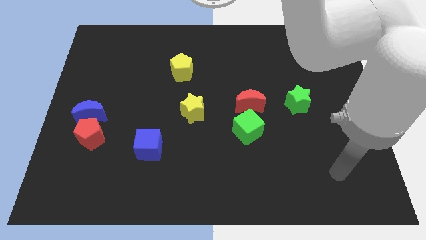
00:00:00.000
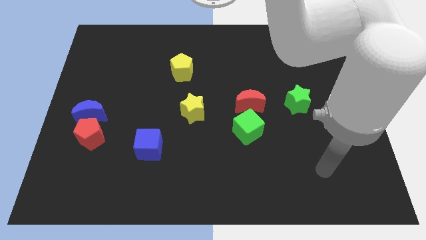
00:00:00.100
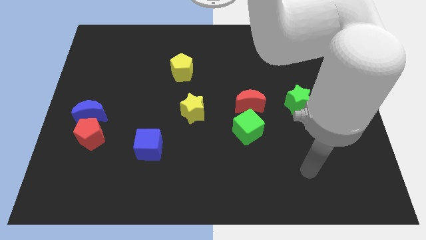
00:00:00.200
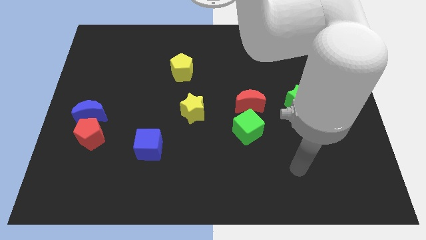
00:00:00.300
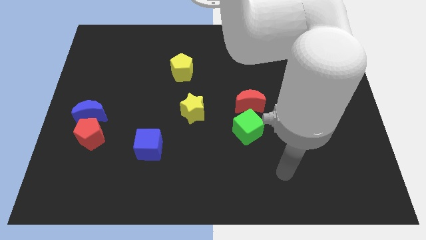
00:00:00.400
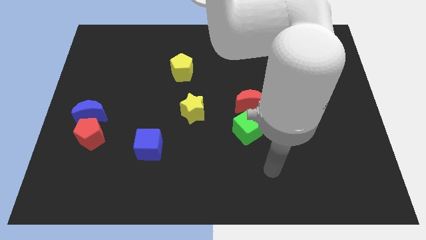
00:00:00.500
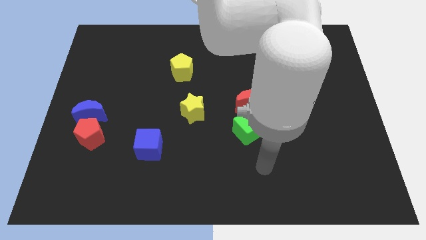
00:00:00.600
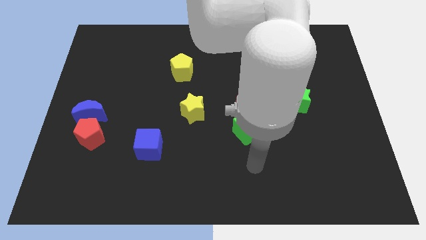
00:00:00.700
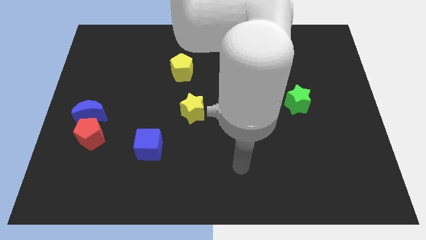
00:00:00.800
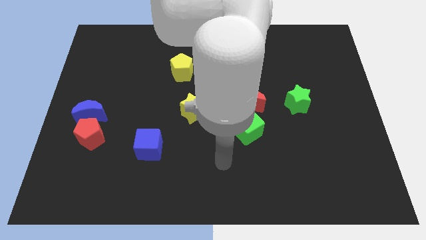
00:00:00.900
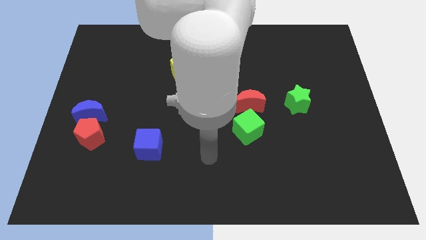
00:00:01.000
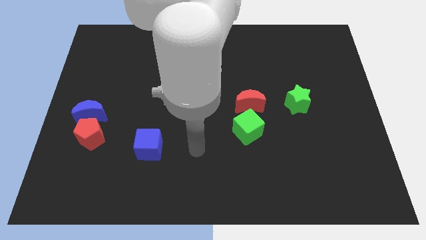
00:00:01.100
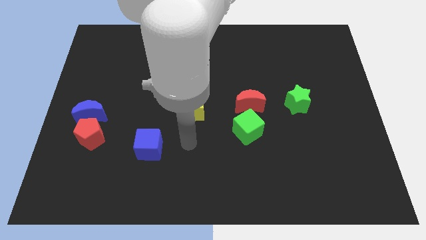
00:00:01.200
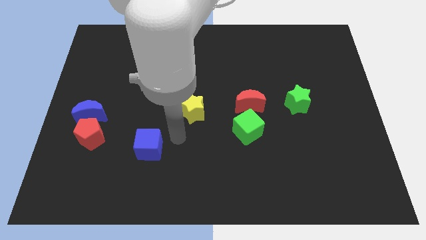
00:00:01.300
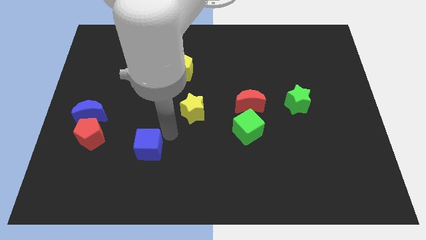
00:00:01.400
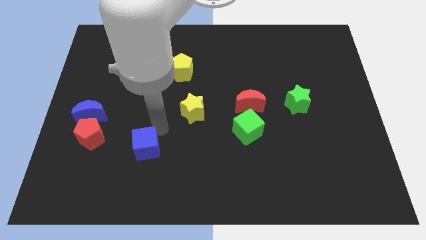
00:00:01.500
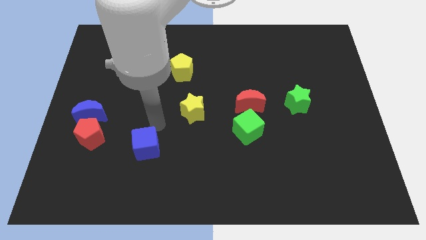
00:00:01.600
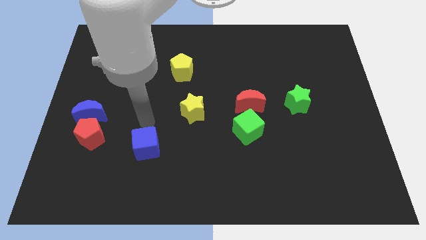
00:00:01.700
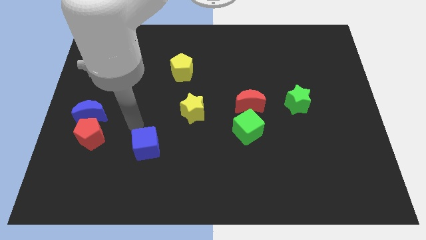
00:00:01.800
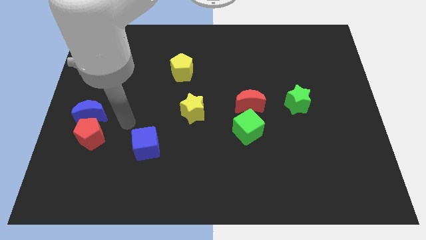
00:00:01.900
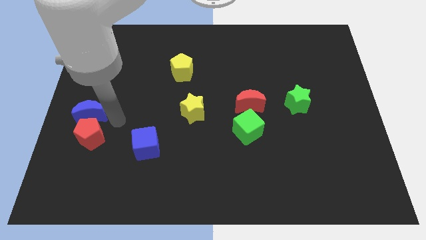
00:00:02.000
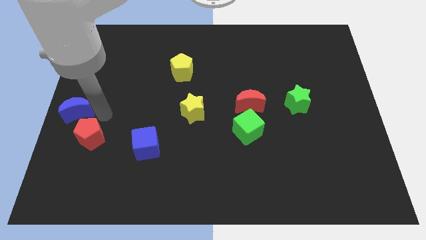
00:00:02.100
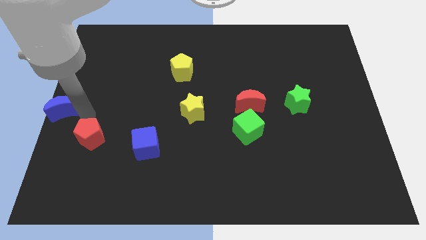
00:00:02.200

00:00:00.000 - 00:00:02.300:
pull the red pentagon apart from the blue moon

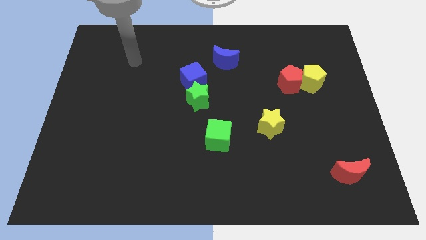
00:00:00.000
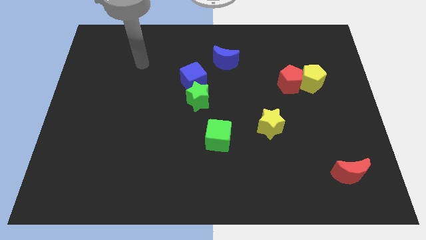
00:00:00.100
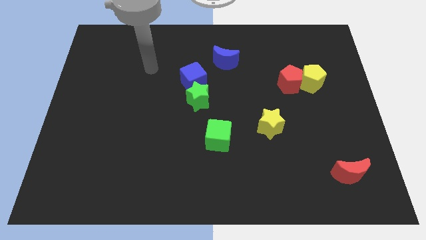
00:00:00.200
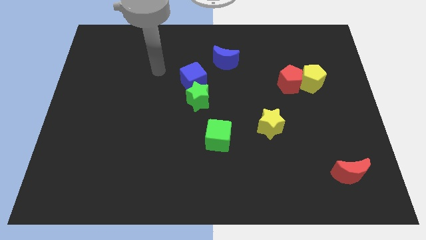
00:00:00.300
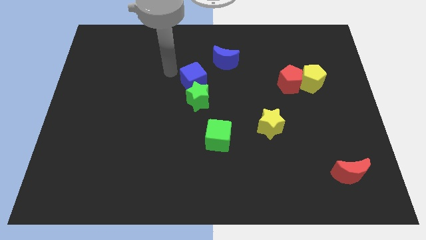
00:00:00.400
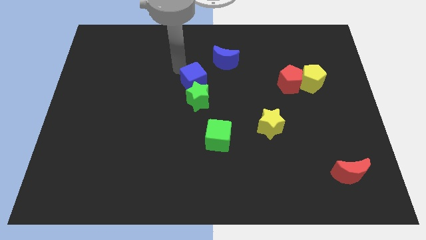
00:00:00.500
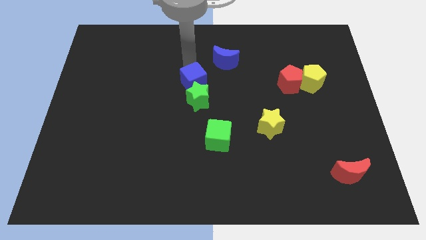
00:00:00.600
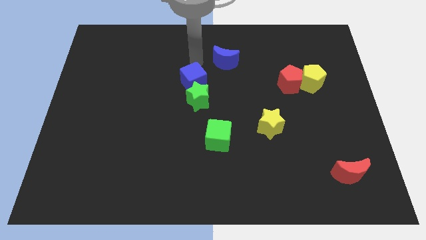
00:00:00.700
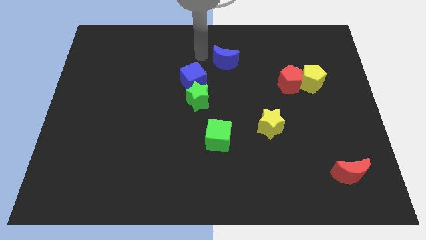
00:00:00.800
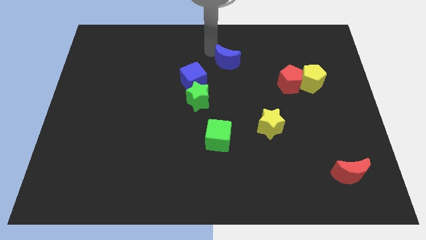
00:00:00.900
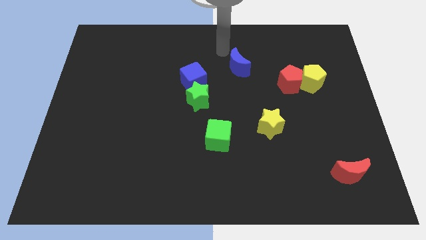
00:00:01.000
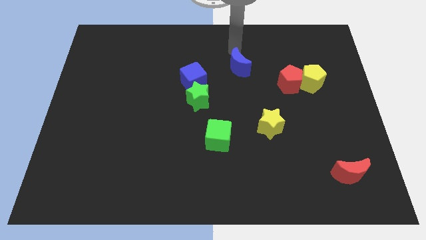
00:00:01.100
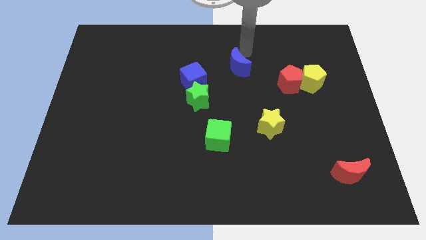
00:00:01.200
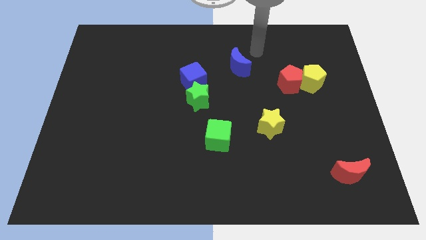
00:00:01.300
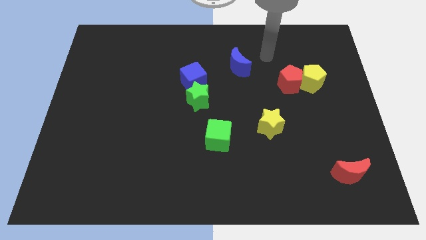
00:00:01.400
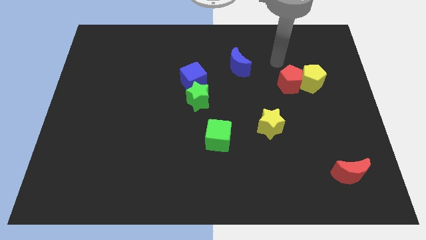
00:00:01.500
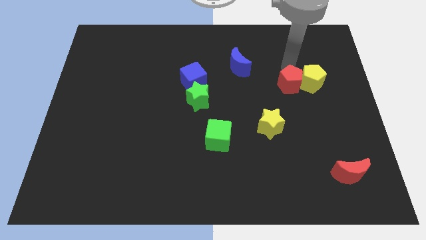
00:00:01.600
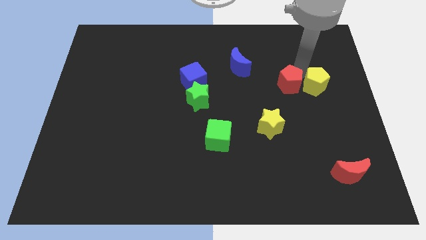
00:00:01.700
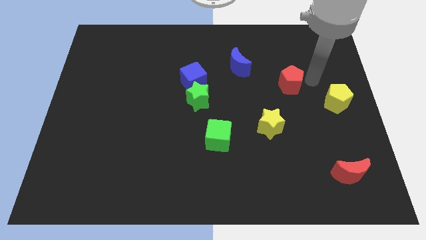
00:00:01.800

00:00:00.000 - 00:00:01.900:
pull the red pentagon apart from the yellow pentagon

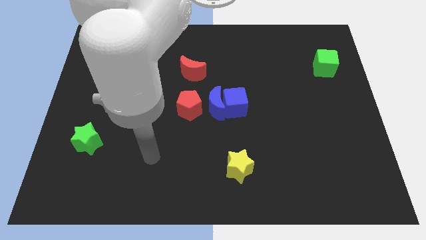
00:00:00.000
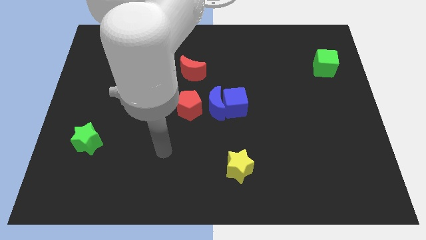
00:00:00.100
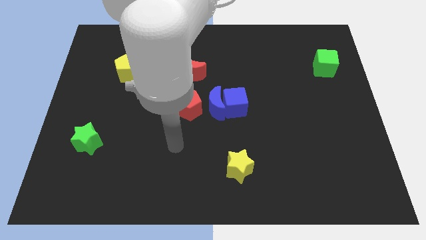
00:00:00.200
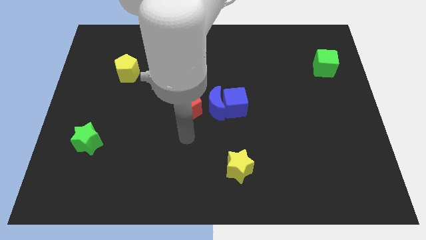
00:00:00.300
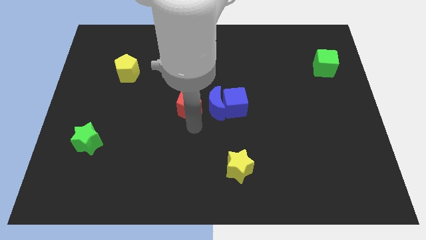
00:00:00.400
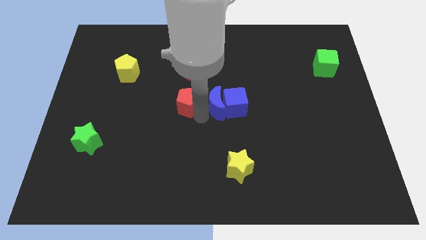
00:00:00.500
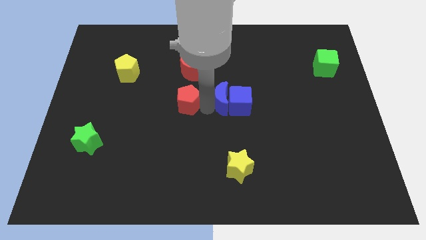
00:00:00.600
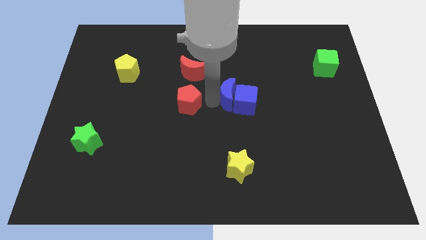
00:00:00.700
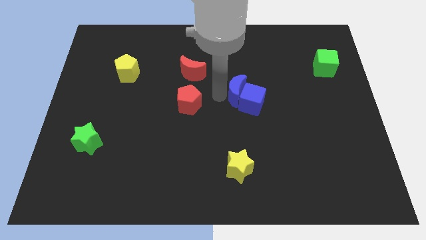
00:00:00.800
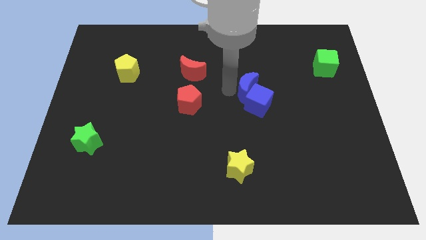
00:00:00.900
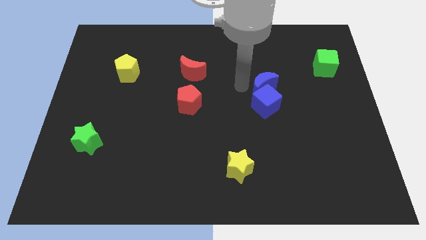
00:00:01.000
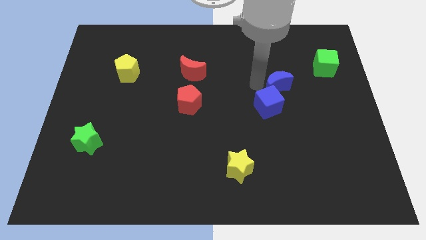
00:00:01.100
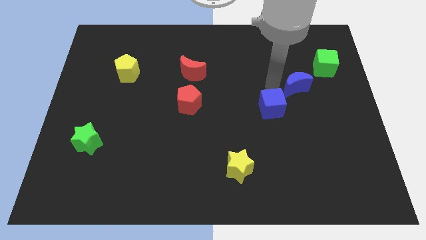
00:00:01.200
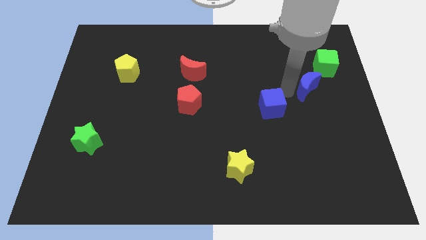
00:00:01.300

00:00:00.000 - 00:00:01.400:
pull the blue cube apart from the blue moon

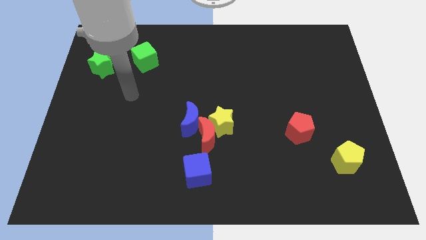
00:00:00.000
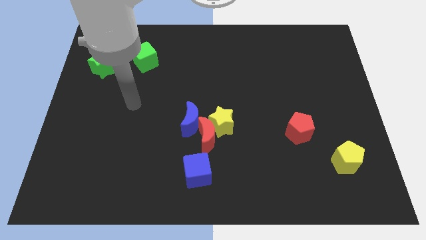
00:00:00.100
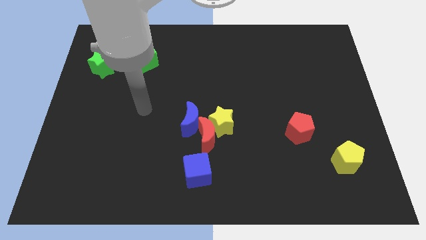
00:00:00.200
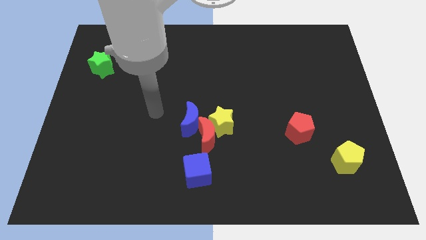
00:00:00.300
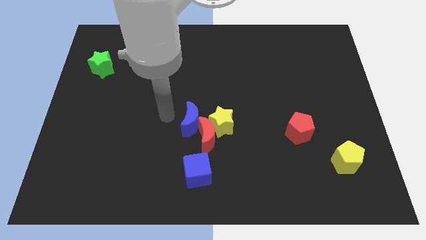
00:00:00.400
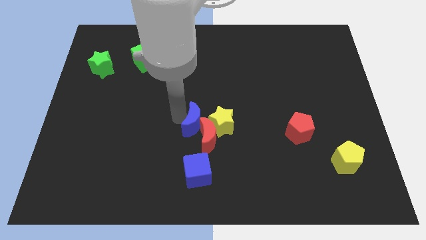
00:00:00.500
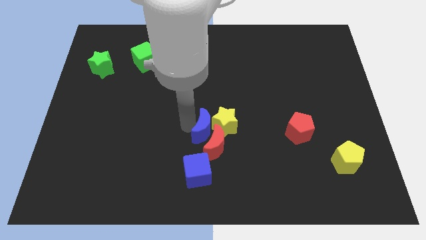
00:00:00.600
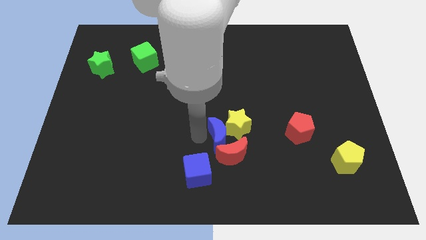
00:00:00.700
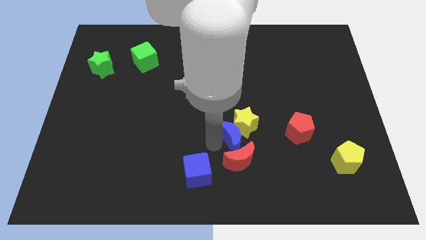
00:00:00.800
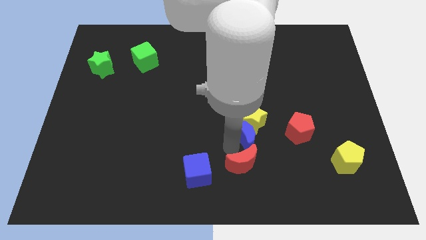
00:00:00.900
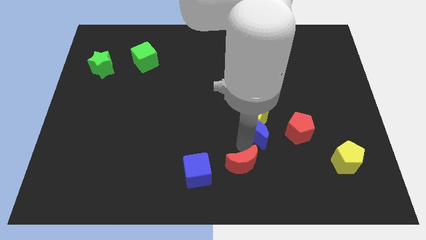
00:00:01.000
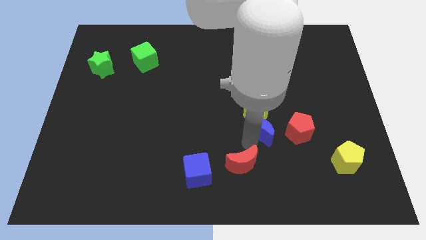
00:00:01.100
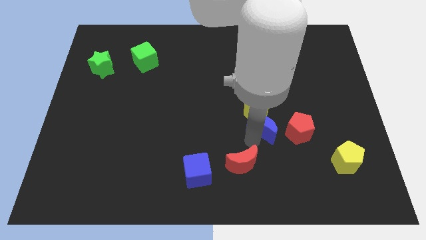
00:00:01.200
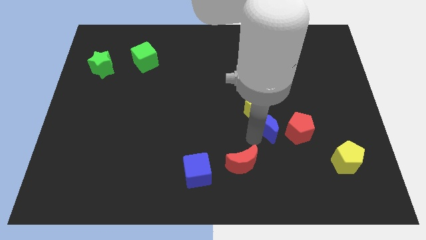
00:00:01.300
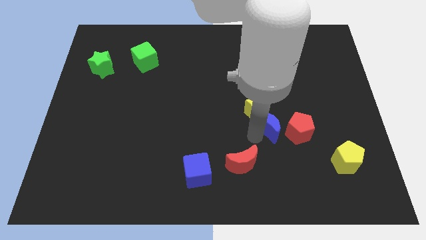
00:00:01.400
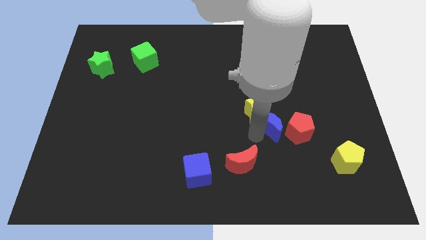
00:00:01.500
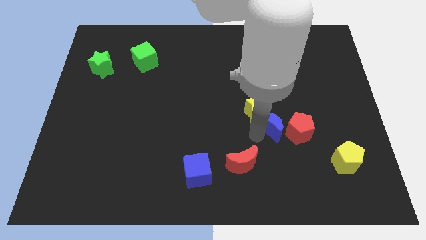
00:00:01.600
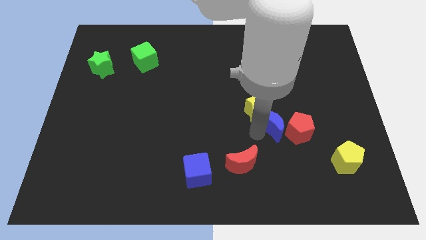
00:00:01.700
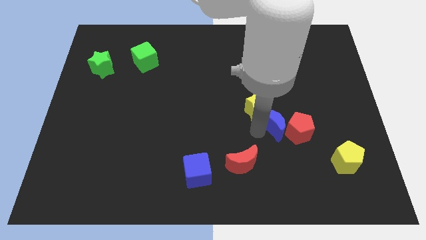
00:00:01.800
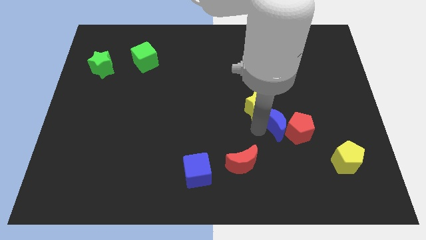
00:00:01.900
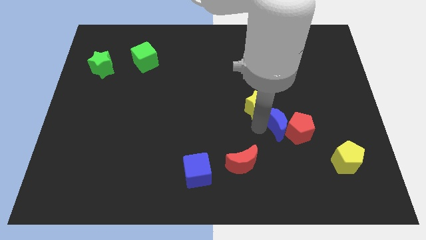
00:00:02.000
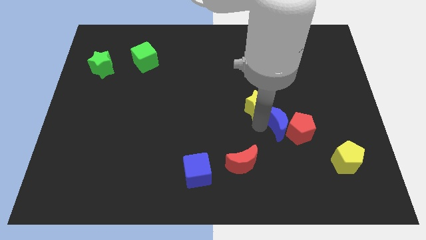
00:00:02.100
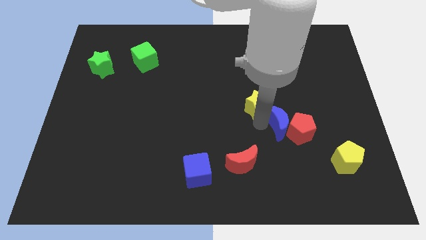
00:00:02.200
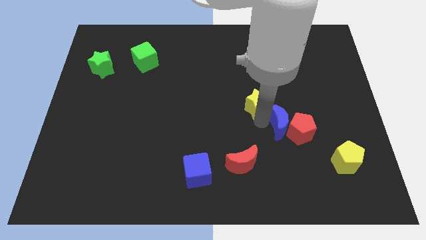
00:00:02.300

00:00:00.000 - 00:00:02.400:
separate the yellow star from the red moon and blue moon

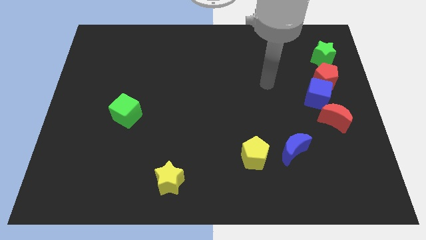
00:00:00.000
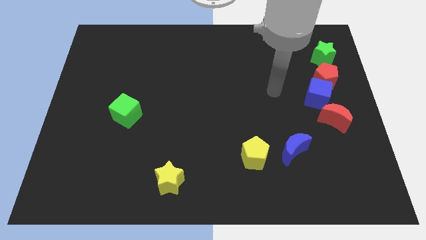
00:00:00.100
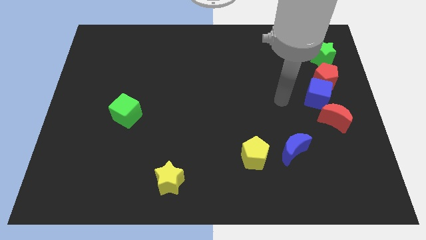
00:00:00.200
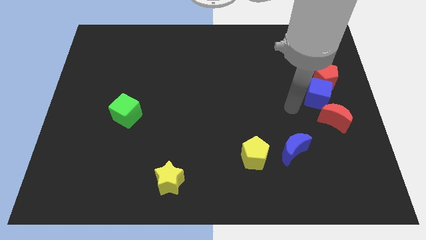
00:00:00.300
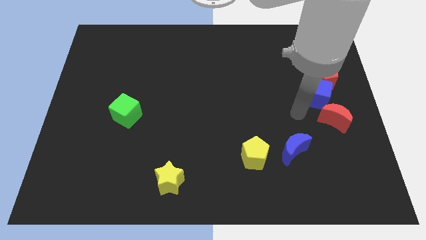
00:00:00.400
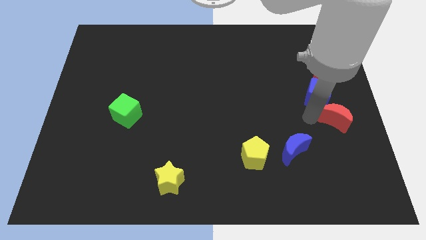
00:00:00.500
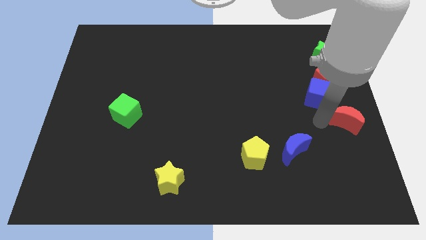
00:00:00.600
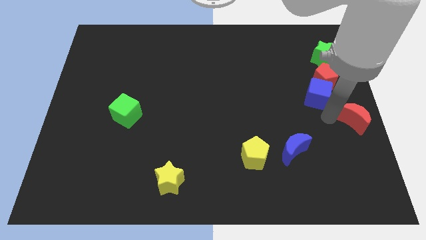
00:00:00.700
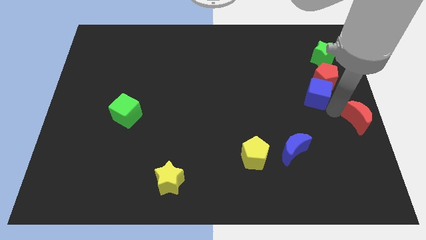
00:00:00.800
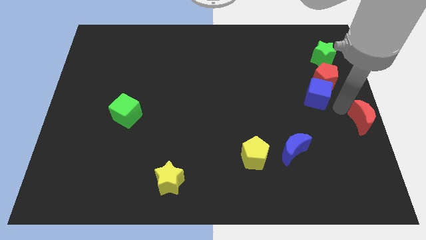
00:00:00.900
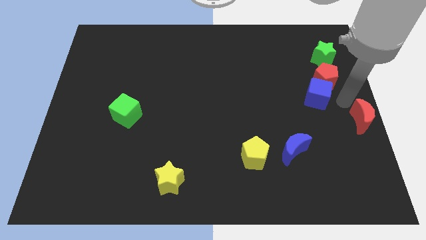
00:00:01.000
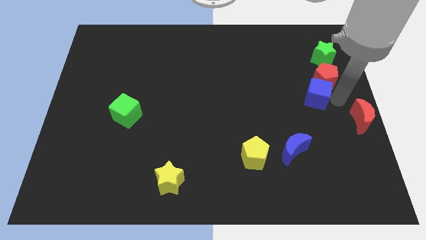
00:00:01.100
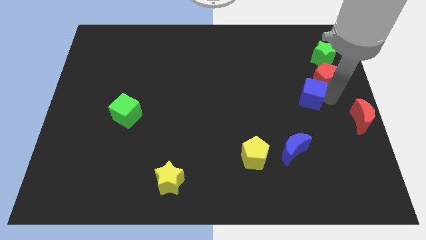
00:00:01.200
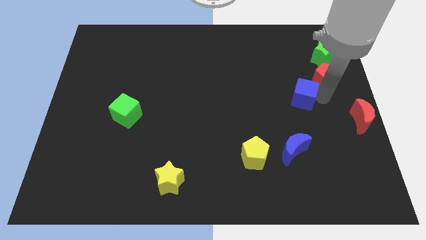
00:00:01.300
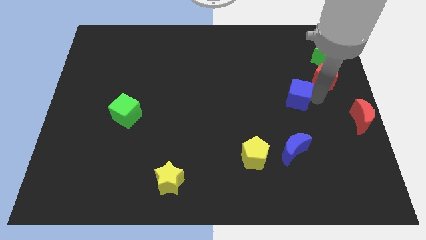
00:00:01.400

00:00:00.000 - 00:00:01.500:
move the blue cube away from the red pentagon and red moon
